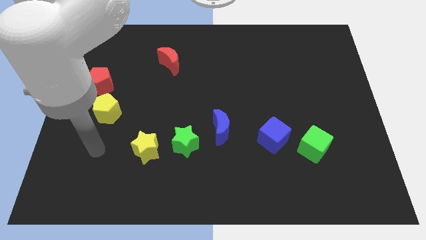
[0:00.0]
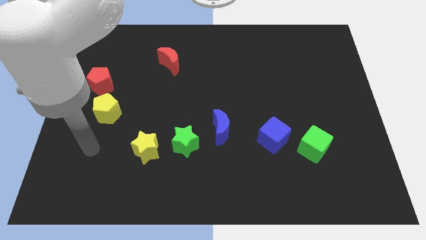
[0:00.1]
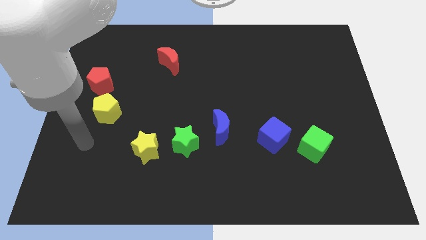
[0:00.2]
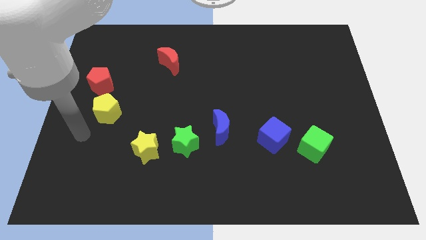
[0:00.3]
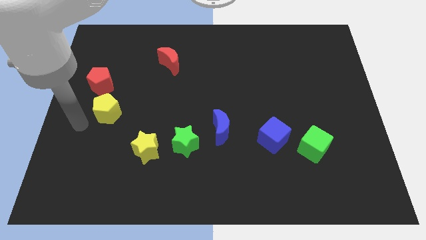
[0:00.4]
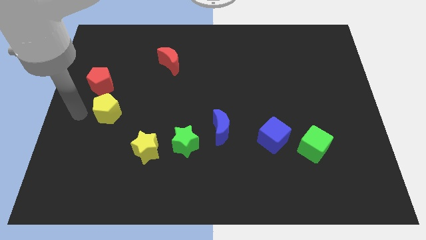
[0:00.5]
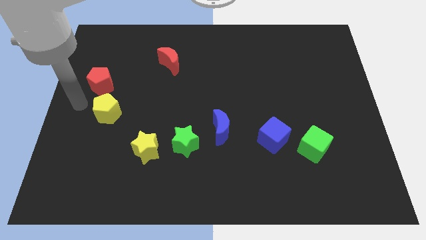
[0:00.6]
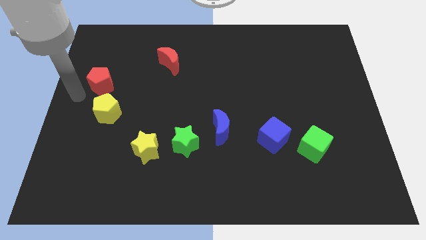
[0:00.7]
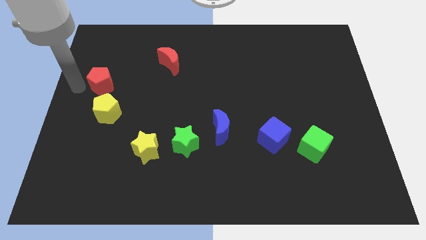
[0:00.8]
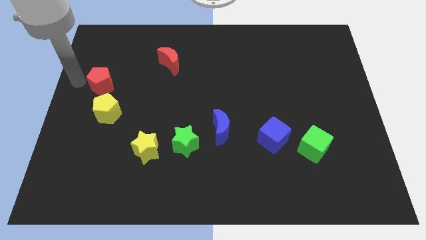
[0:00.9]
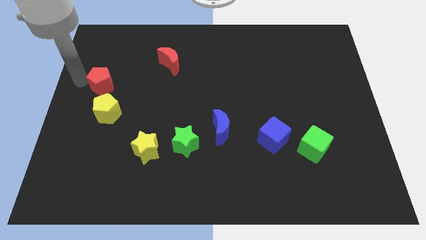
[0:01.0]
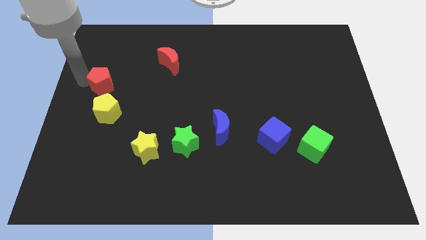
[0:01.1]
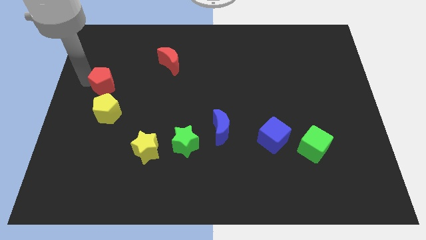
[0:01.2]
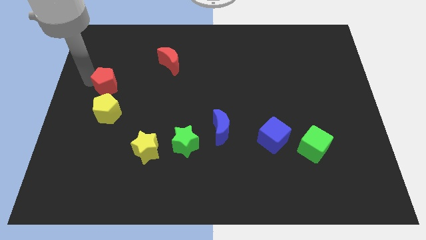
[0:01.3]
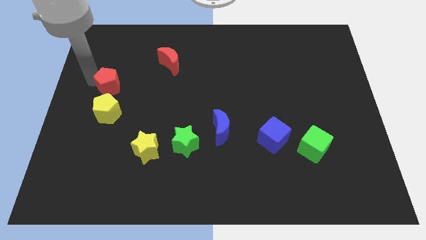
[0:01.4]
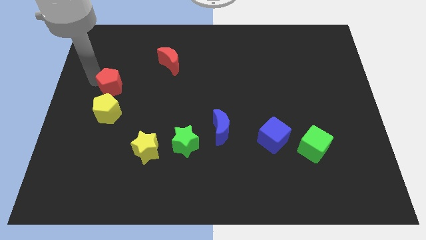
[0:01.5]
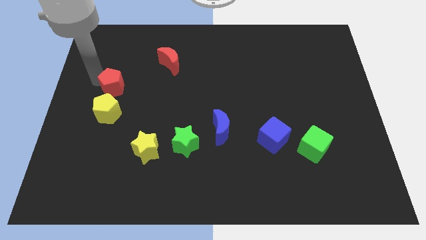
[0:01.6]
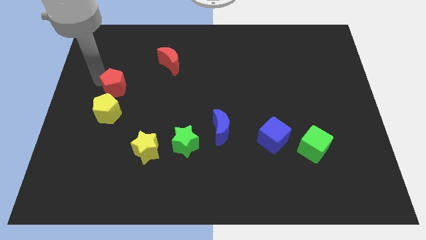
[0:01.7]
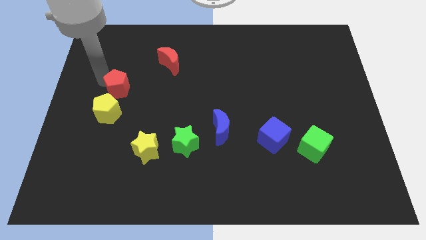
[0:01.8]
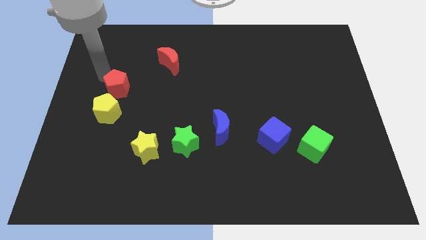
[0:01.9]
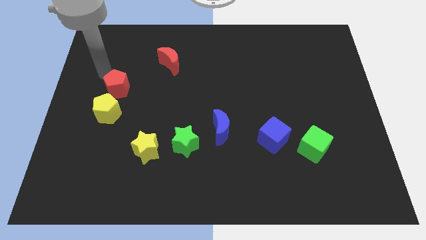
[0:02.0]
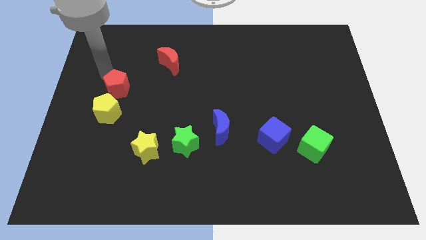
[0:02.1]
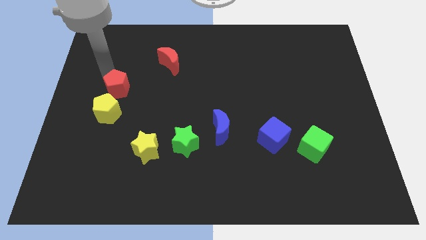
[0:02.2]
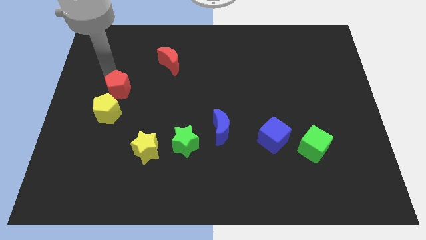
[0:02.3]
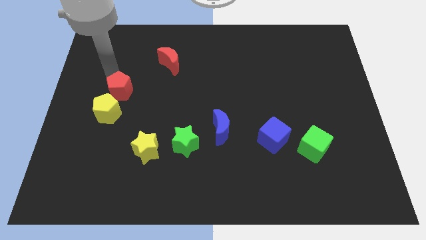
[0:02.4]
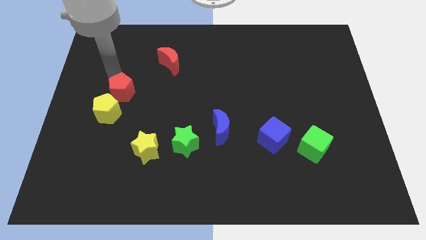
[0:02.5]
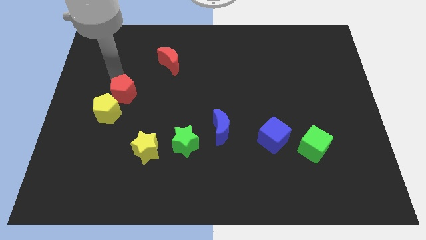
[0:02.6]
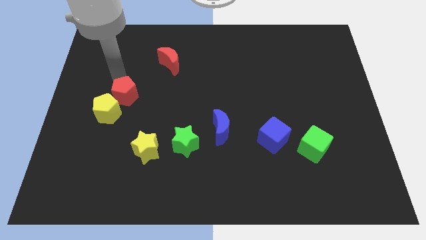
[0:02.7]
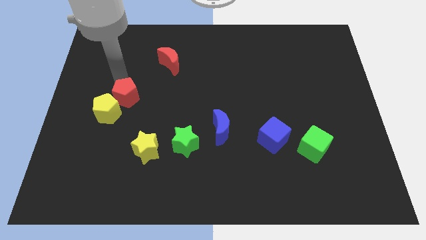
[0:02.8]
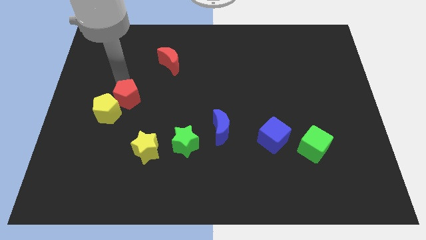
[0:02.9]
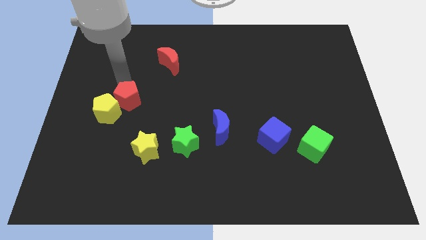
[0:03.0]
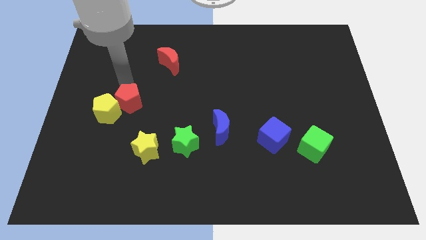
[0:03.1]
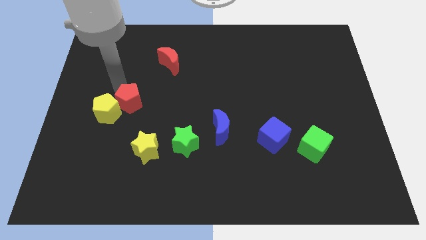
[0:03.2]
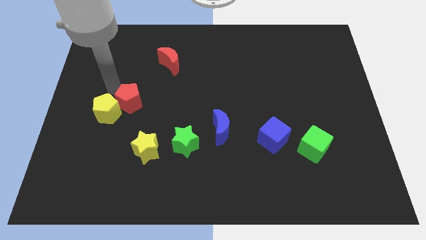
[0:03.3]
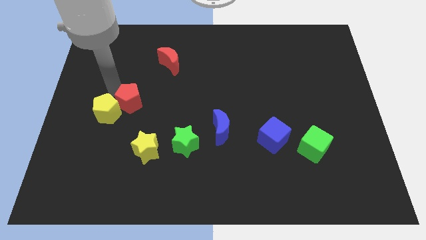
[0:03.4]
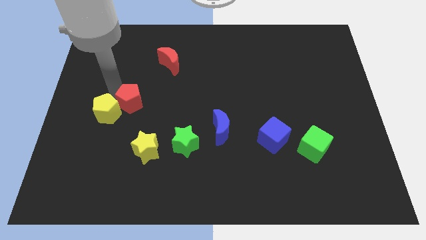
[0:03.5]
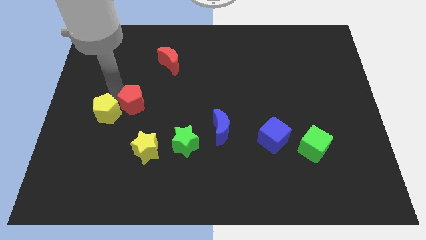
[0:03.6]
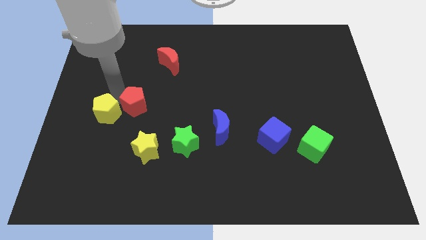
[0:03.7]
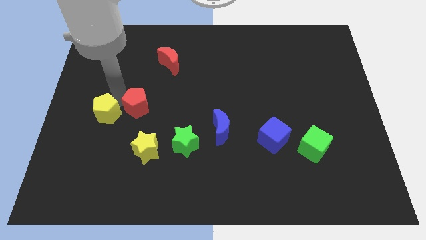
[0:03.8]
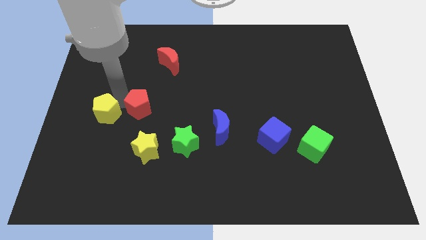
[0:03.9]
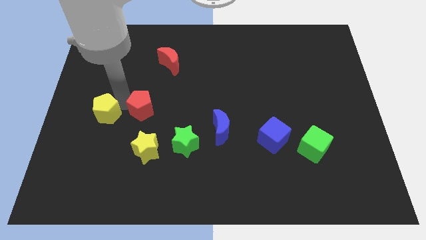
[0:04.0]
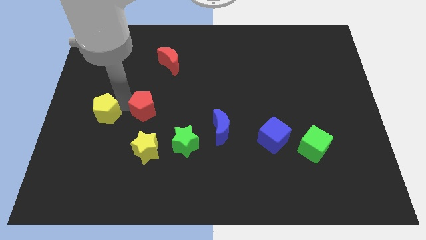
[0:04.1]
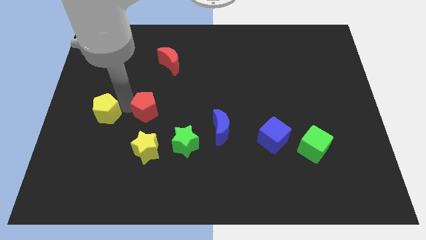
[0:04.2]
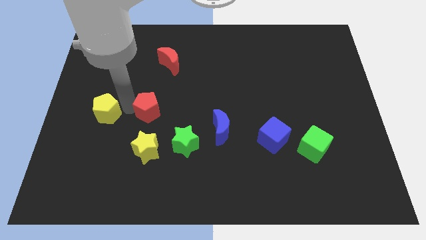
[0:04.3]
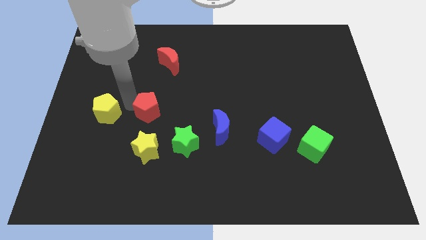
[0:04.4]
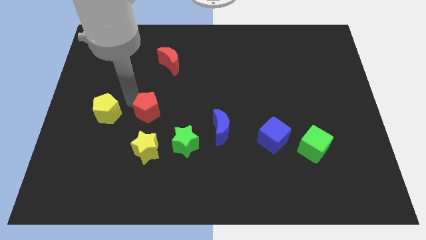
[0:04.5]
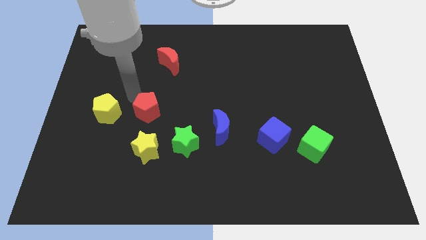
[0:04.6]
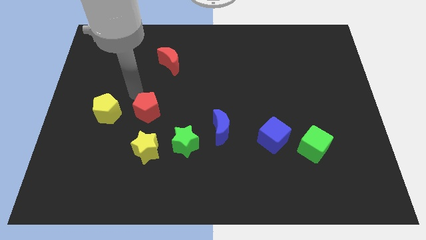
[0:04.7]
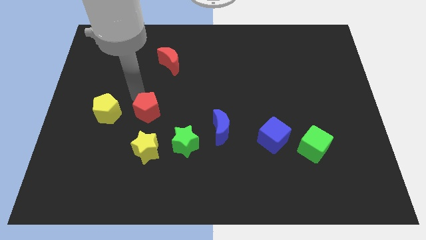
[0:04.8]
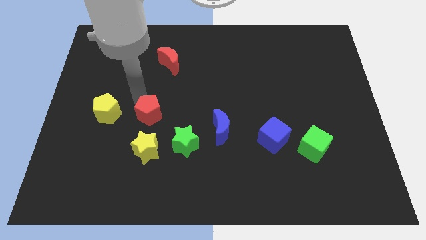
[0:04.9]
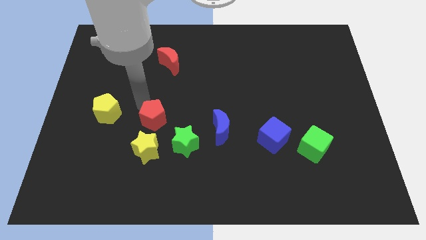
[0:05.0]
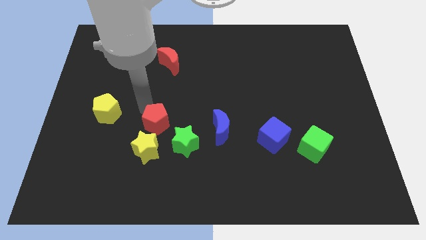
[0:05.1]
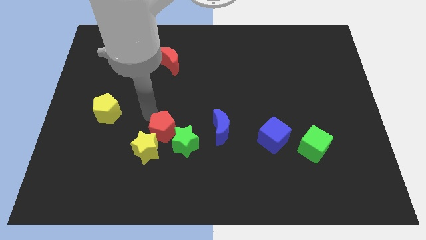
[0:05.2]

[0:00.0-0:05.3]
slide the red pentagon close to the green star

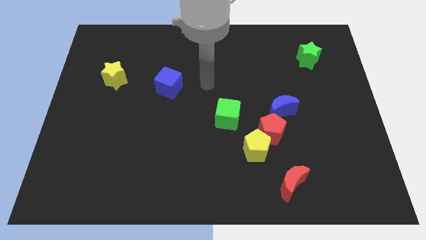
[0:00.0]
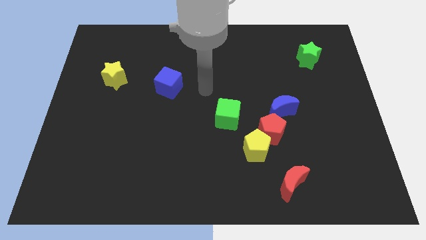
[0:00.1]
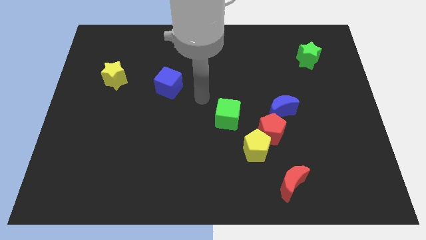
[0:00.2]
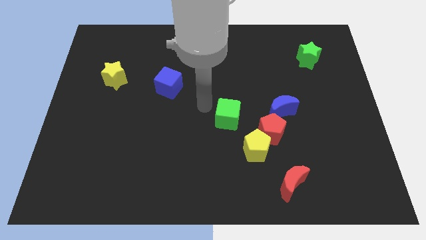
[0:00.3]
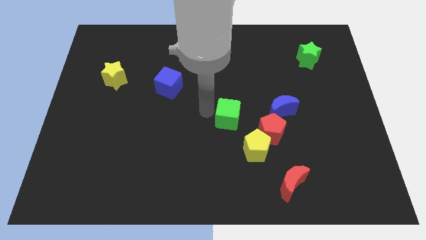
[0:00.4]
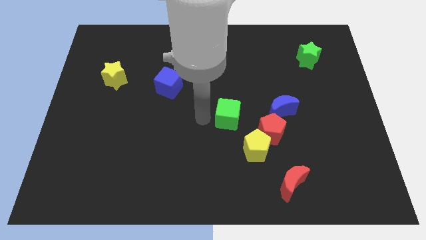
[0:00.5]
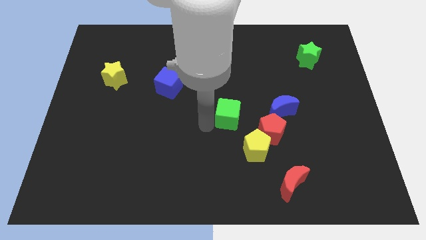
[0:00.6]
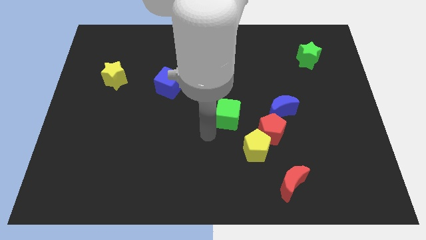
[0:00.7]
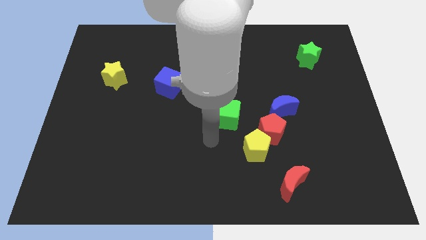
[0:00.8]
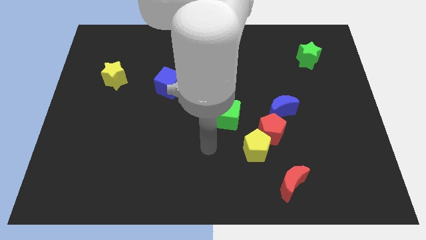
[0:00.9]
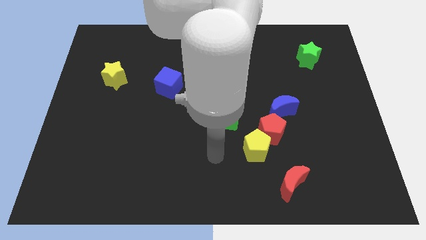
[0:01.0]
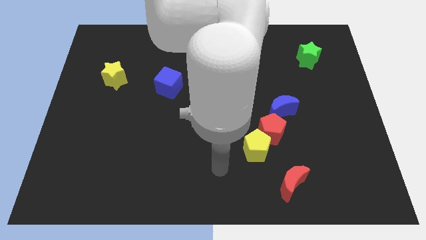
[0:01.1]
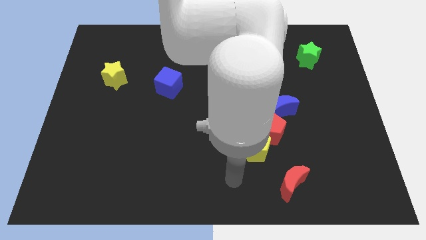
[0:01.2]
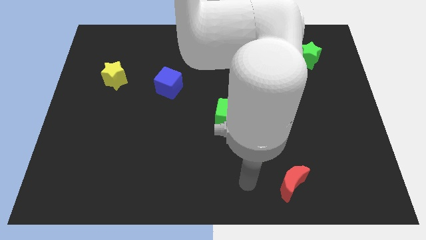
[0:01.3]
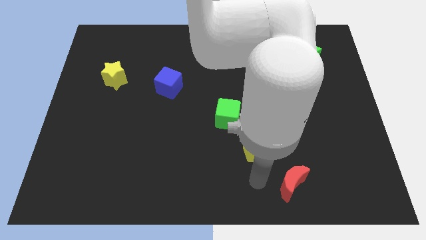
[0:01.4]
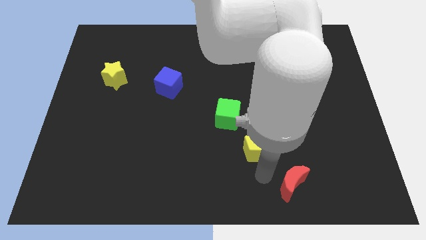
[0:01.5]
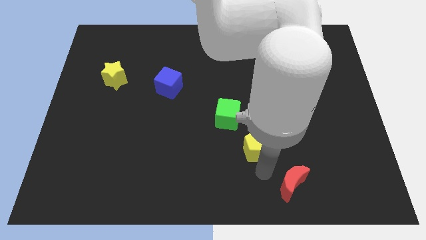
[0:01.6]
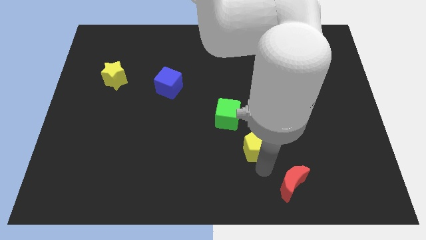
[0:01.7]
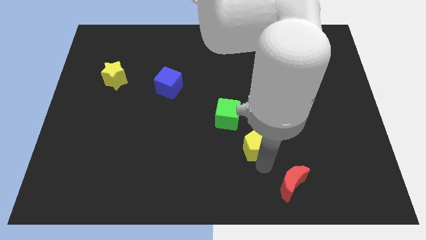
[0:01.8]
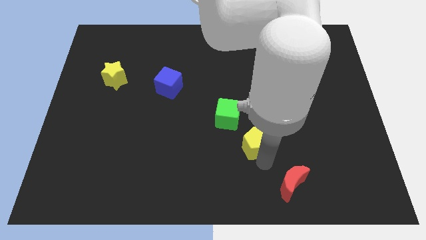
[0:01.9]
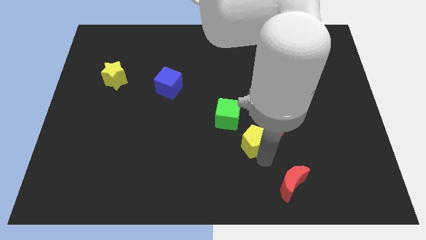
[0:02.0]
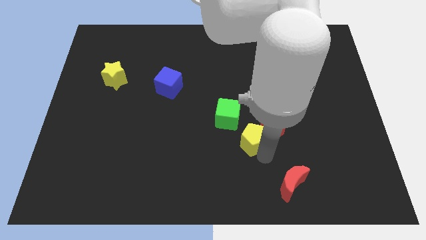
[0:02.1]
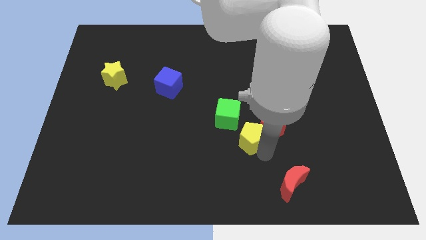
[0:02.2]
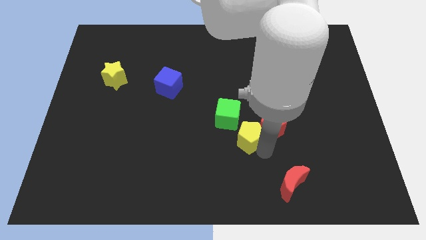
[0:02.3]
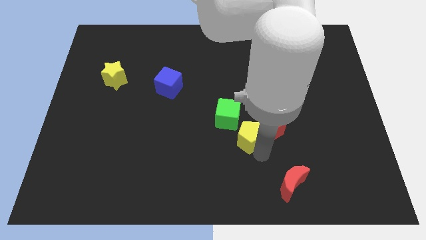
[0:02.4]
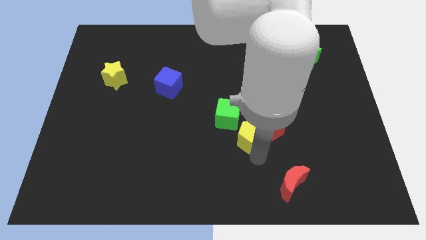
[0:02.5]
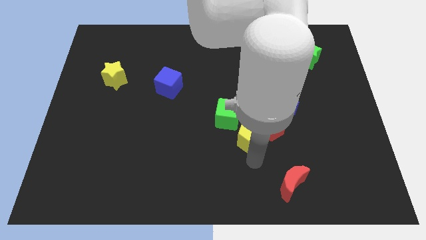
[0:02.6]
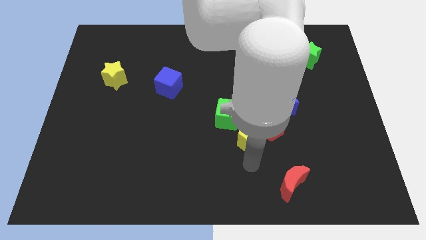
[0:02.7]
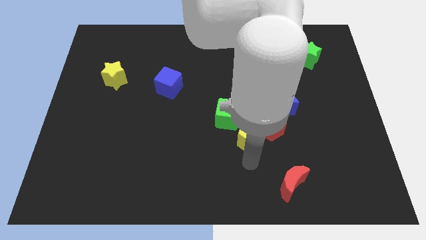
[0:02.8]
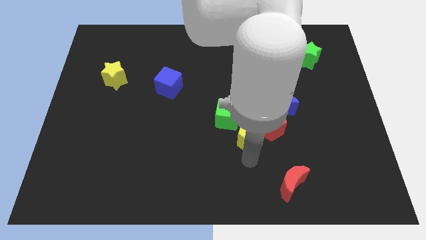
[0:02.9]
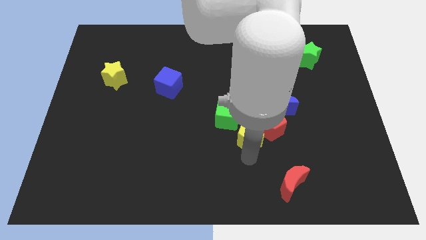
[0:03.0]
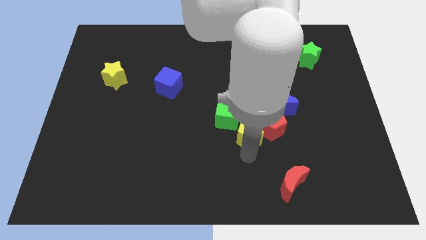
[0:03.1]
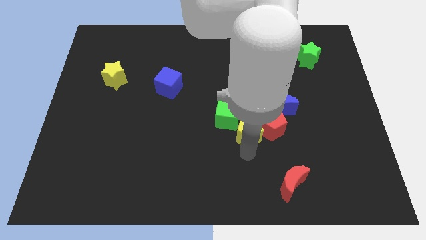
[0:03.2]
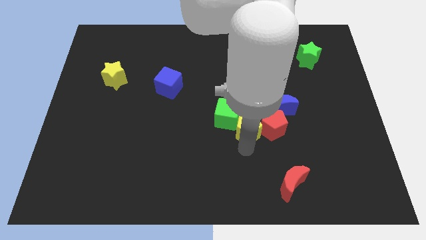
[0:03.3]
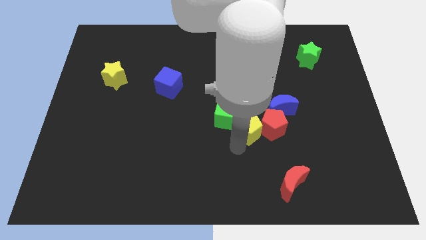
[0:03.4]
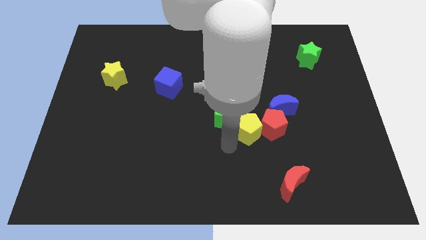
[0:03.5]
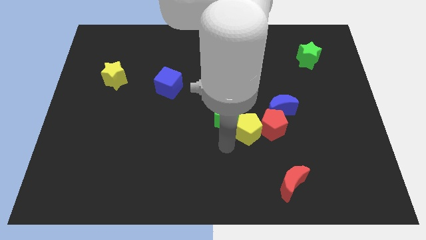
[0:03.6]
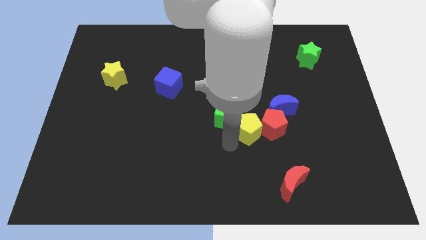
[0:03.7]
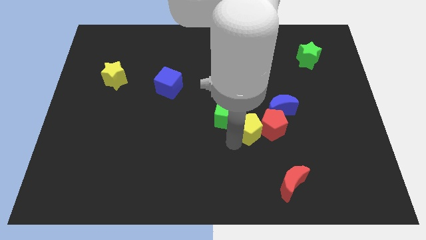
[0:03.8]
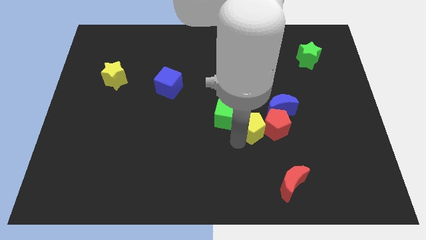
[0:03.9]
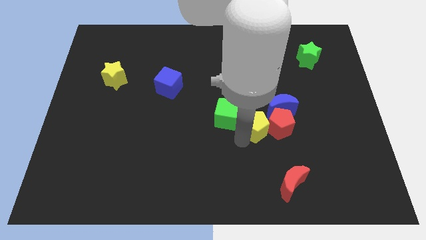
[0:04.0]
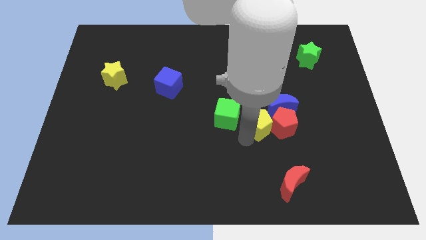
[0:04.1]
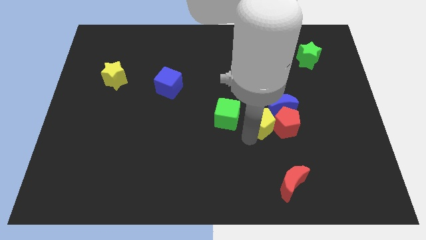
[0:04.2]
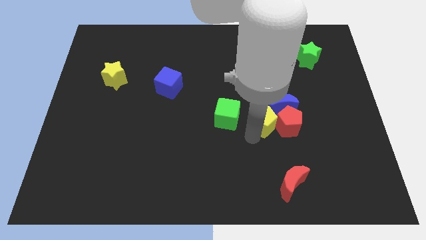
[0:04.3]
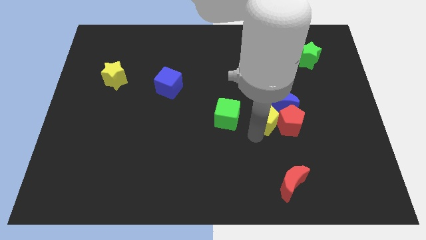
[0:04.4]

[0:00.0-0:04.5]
push the yellow pentagon towards the blue moon
